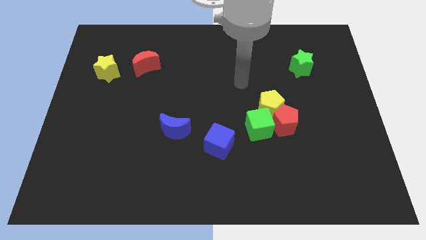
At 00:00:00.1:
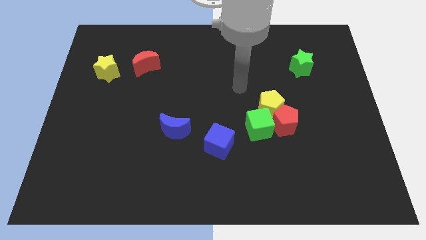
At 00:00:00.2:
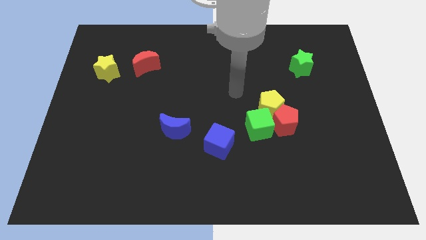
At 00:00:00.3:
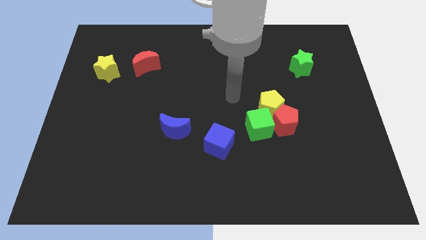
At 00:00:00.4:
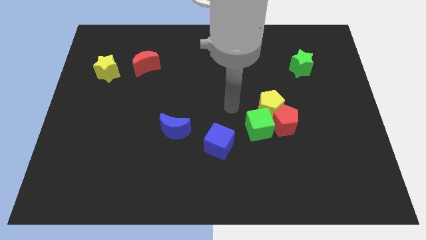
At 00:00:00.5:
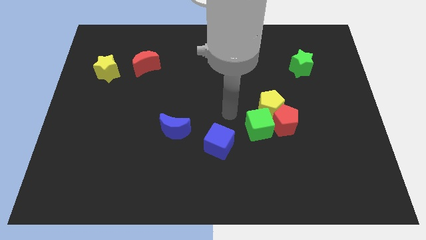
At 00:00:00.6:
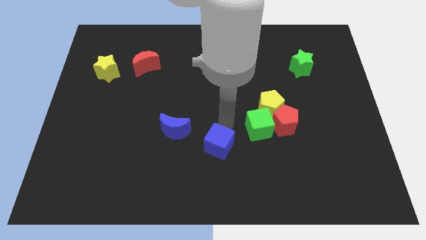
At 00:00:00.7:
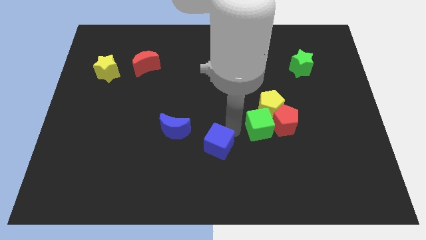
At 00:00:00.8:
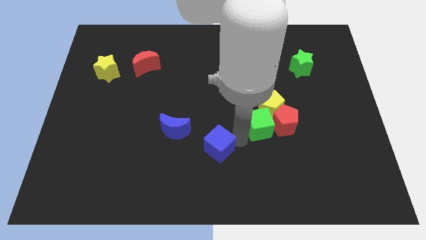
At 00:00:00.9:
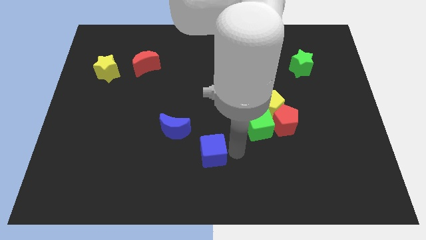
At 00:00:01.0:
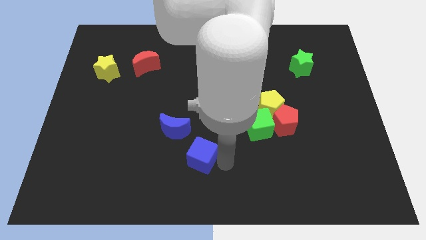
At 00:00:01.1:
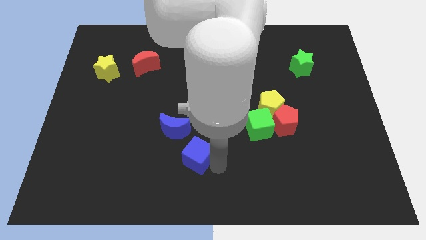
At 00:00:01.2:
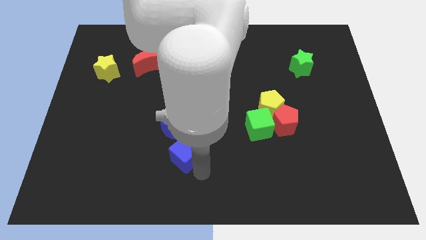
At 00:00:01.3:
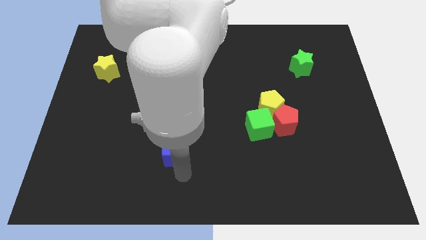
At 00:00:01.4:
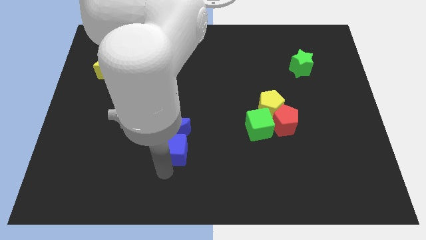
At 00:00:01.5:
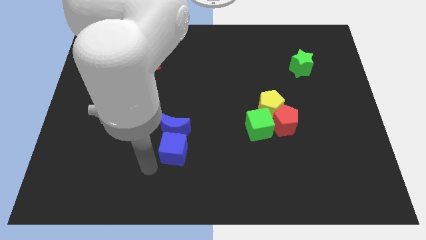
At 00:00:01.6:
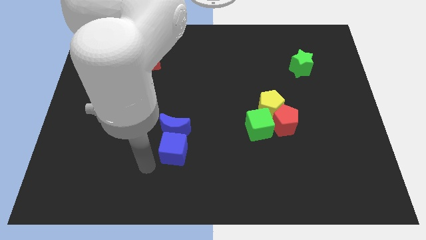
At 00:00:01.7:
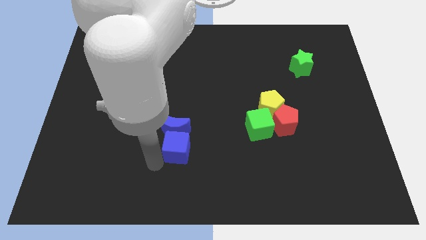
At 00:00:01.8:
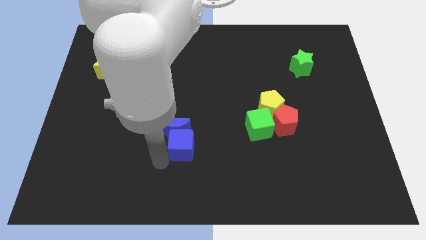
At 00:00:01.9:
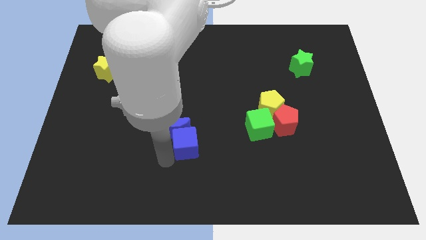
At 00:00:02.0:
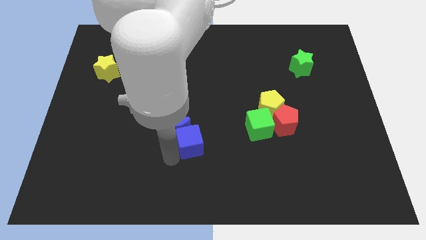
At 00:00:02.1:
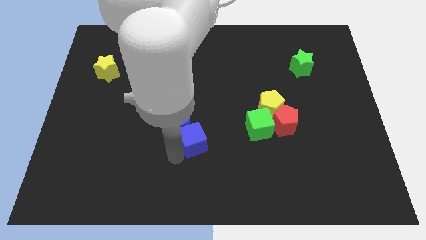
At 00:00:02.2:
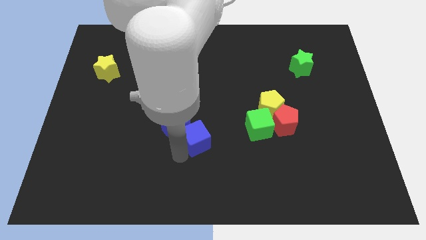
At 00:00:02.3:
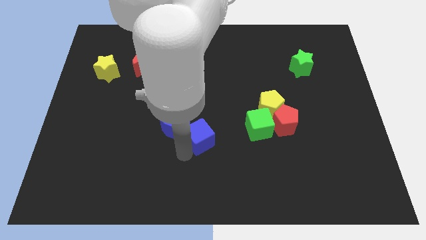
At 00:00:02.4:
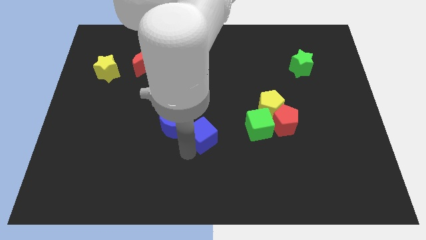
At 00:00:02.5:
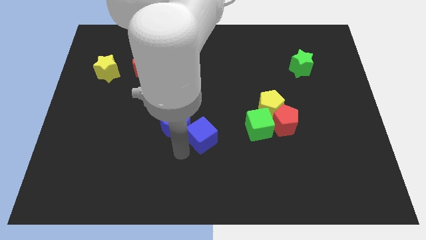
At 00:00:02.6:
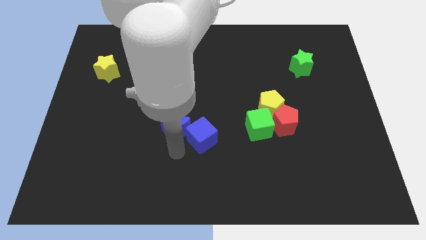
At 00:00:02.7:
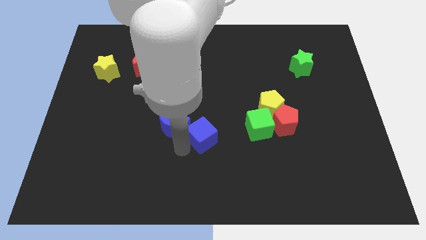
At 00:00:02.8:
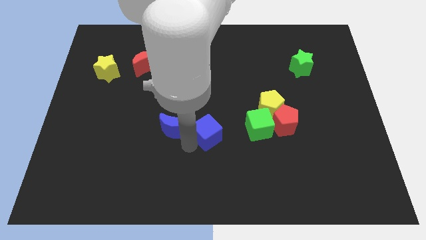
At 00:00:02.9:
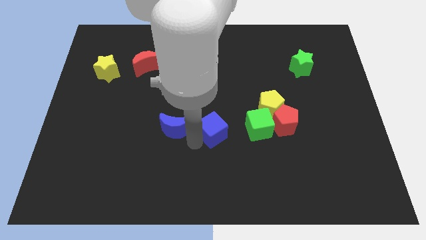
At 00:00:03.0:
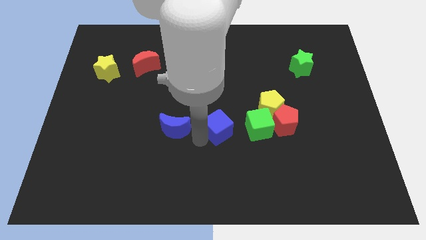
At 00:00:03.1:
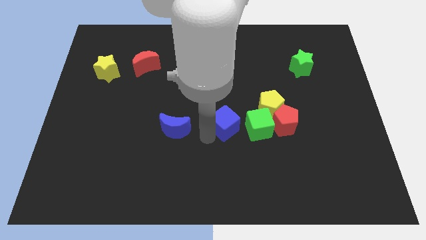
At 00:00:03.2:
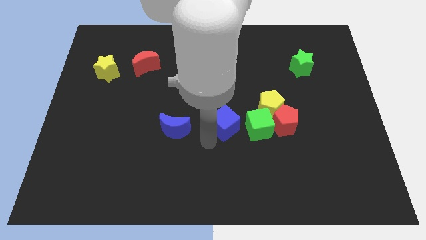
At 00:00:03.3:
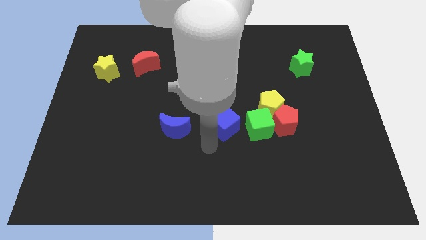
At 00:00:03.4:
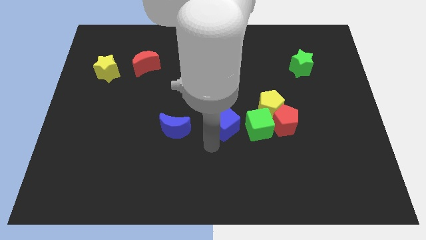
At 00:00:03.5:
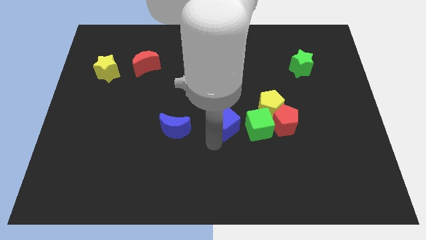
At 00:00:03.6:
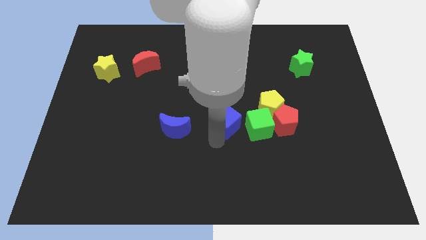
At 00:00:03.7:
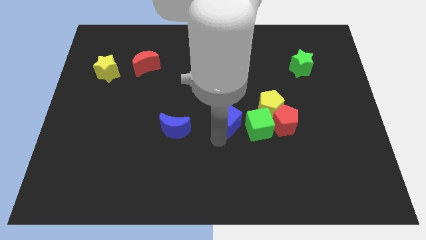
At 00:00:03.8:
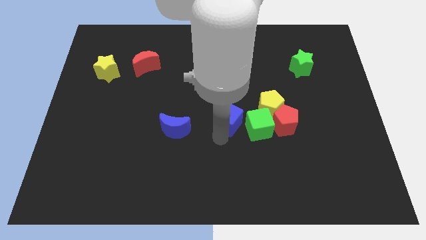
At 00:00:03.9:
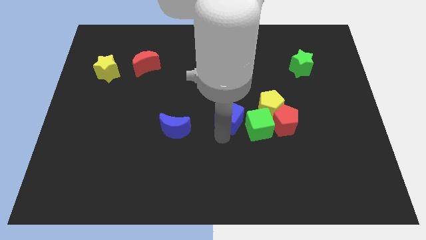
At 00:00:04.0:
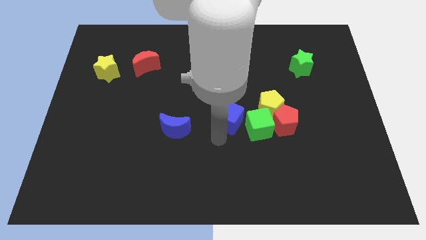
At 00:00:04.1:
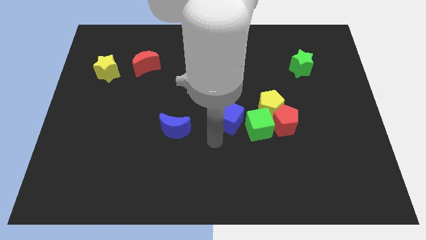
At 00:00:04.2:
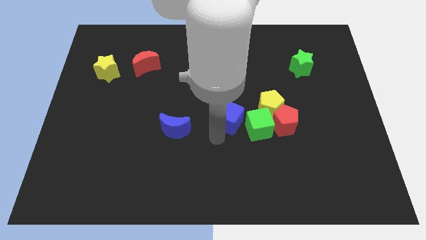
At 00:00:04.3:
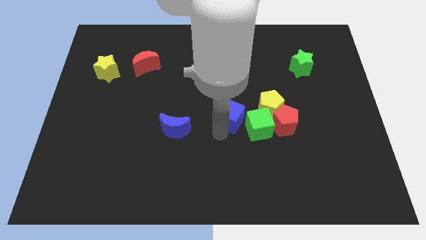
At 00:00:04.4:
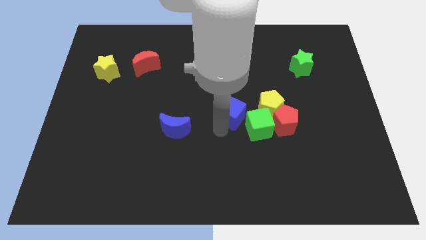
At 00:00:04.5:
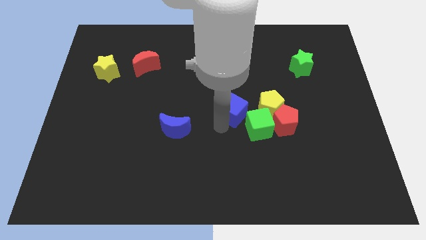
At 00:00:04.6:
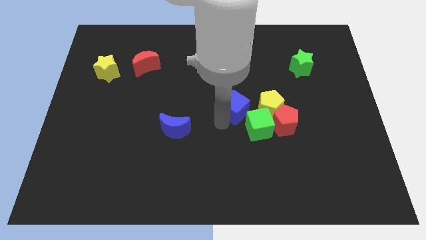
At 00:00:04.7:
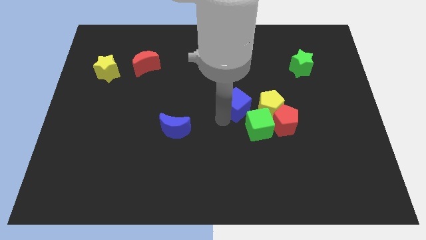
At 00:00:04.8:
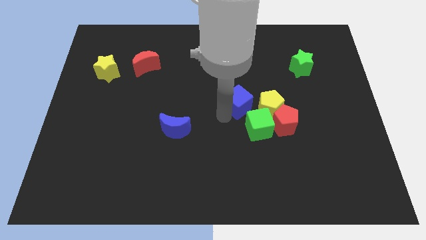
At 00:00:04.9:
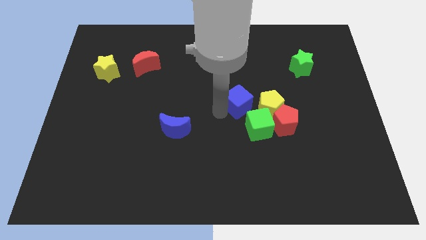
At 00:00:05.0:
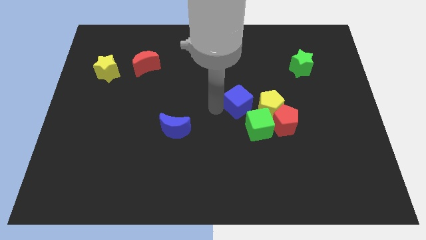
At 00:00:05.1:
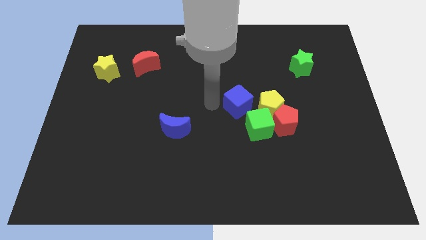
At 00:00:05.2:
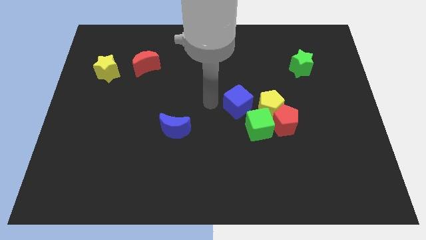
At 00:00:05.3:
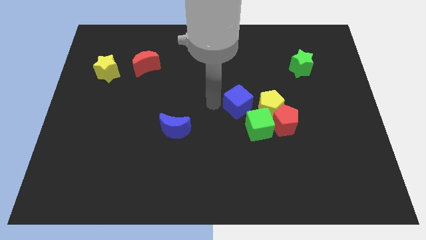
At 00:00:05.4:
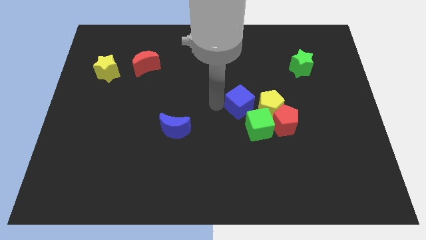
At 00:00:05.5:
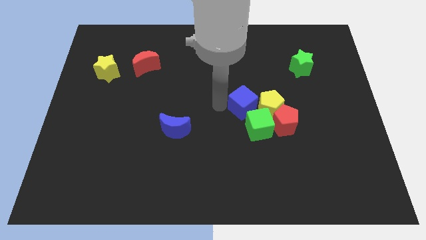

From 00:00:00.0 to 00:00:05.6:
move the blue cube close to the yellow pentagon

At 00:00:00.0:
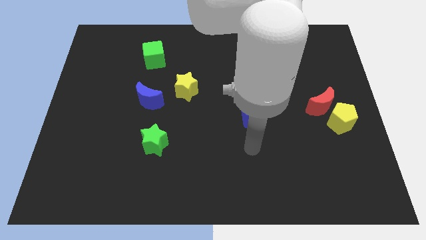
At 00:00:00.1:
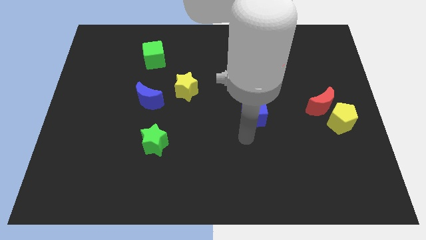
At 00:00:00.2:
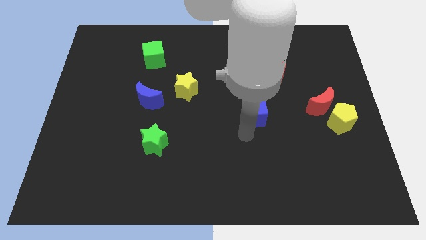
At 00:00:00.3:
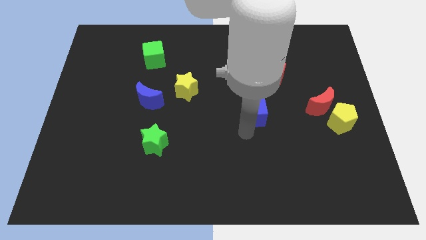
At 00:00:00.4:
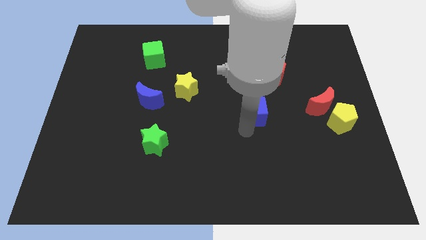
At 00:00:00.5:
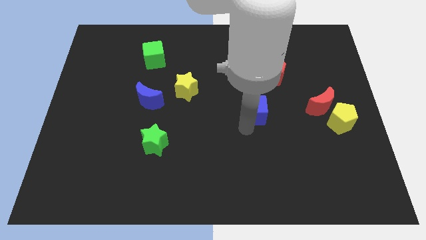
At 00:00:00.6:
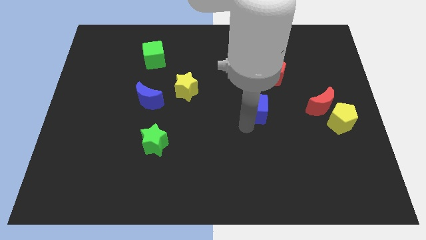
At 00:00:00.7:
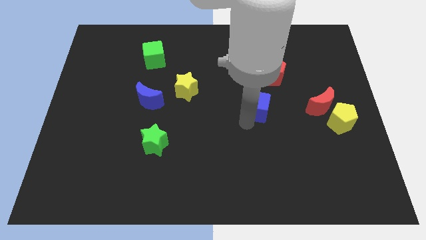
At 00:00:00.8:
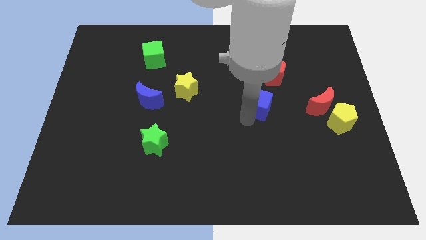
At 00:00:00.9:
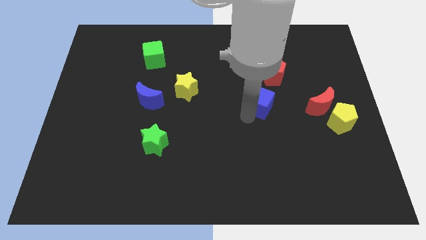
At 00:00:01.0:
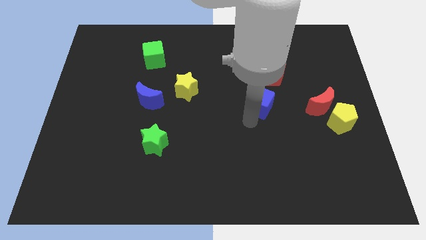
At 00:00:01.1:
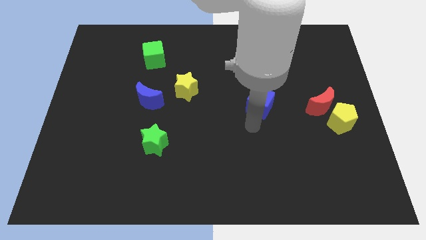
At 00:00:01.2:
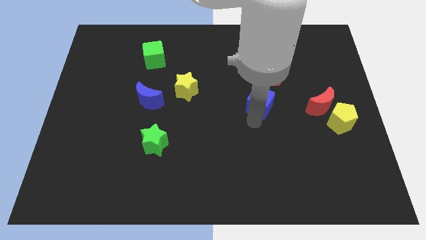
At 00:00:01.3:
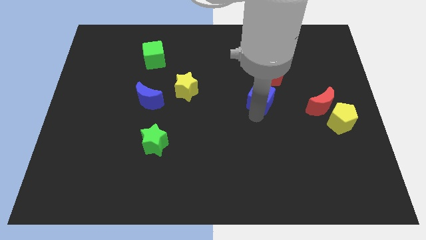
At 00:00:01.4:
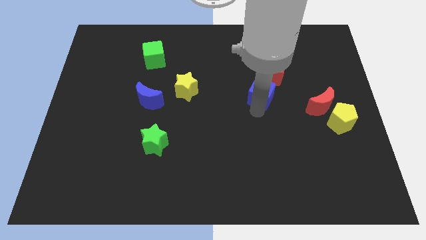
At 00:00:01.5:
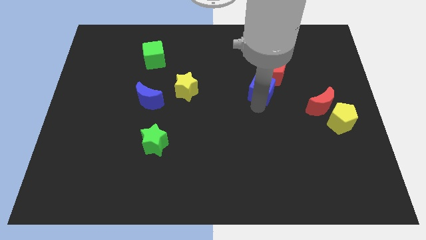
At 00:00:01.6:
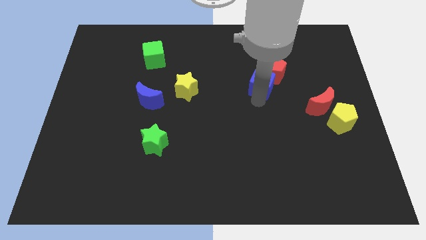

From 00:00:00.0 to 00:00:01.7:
put the blue cube to the red pentagon
